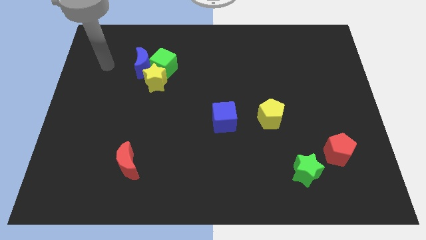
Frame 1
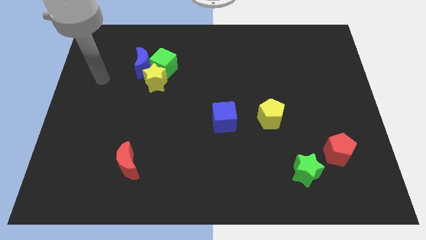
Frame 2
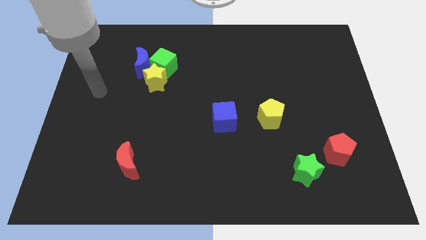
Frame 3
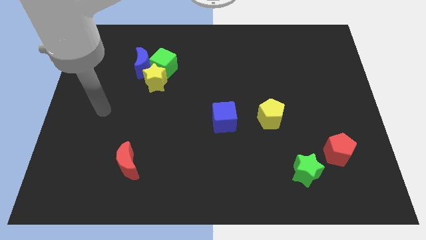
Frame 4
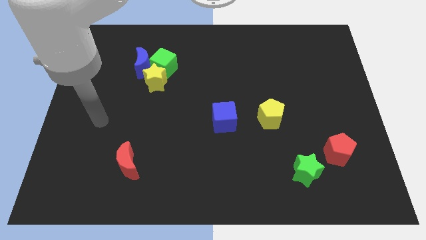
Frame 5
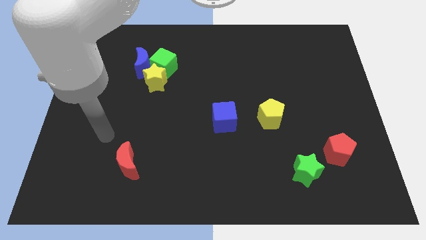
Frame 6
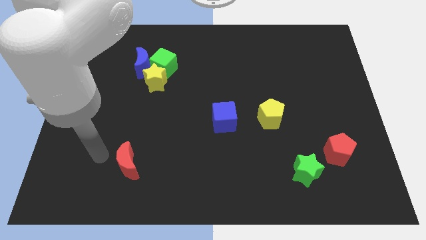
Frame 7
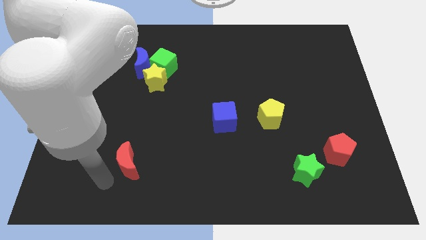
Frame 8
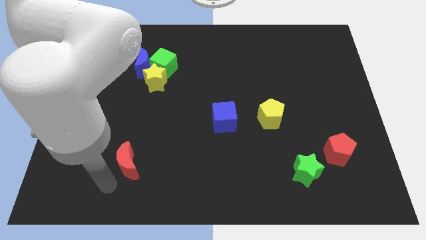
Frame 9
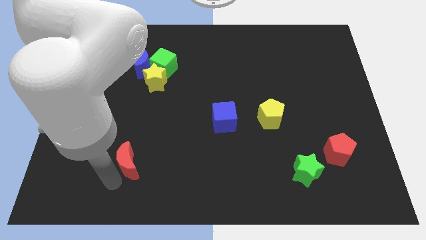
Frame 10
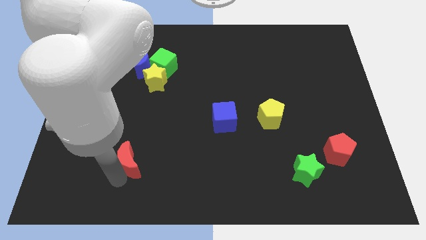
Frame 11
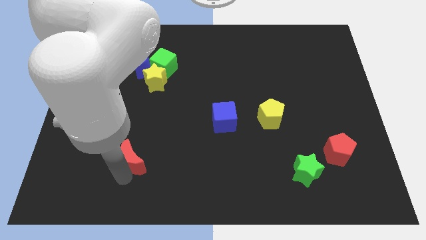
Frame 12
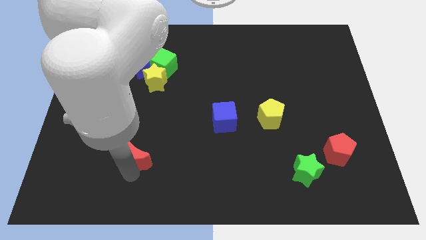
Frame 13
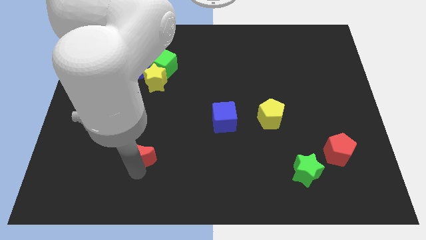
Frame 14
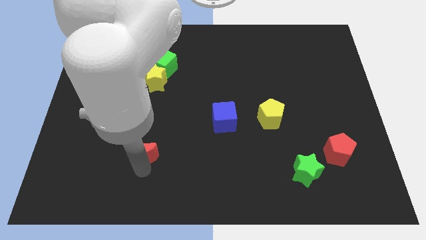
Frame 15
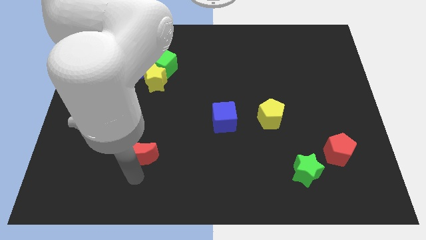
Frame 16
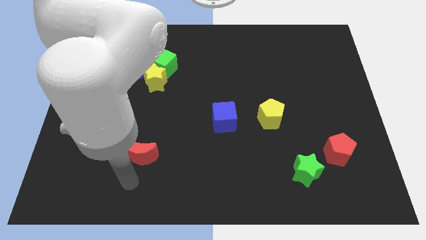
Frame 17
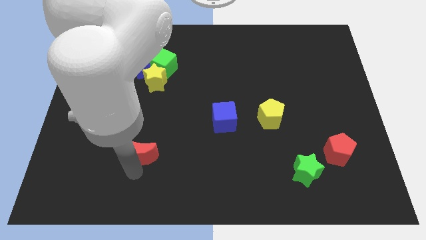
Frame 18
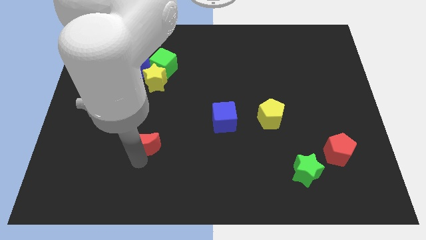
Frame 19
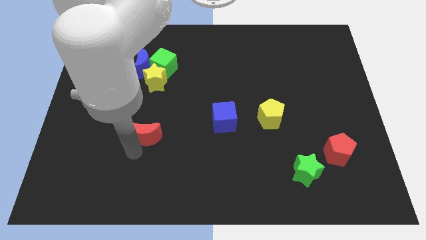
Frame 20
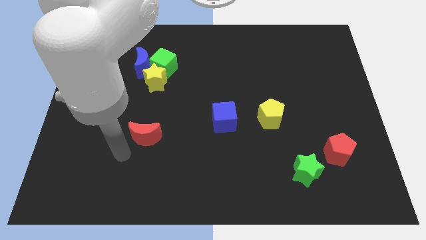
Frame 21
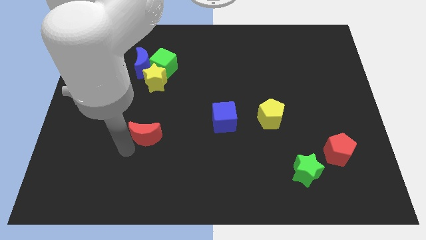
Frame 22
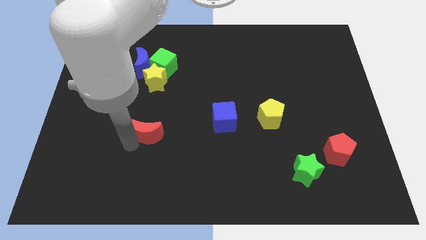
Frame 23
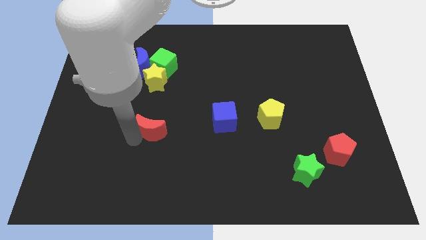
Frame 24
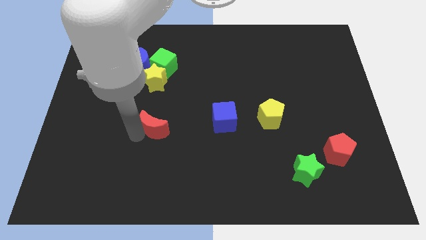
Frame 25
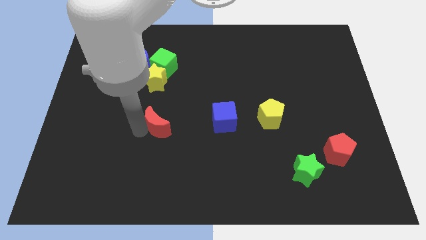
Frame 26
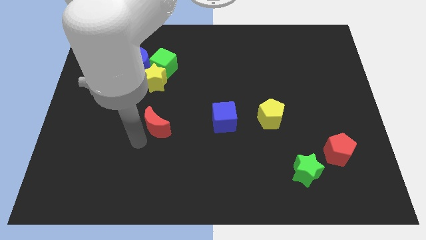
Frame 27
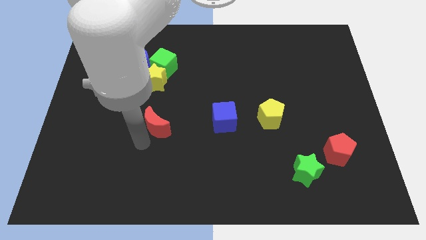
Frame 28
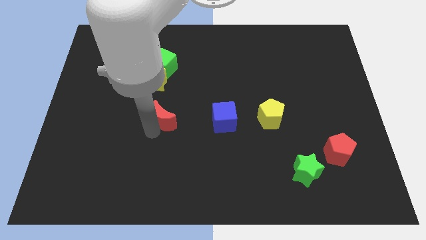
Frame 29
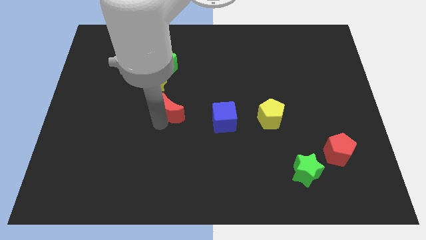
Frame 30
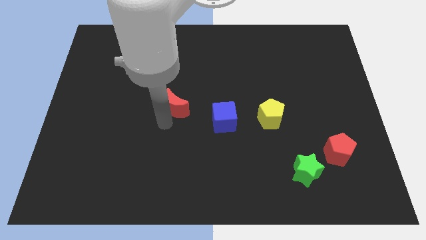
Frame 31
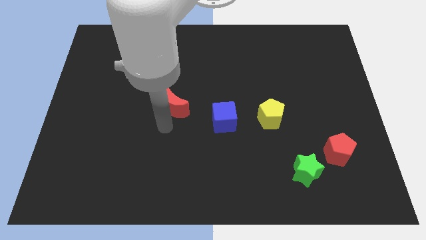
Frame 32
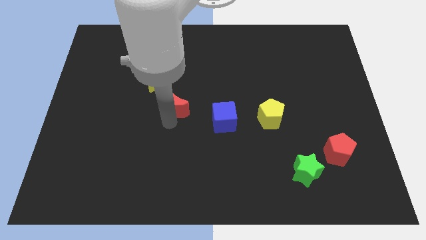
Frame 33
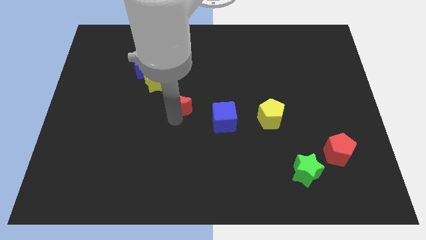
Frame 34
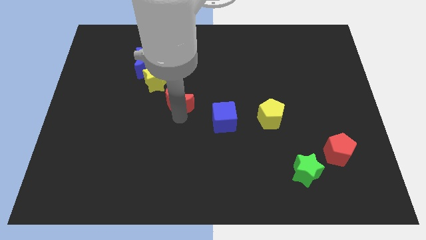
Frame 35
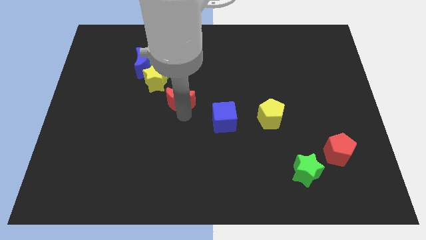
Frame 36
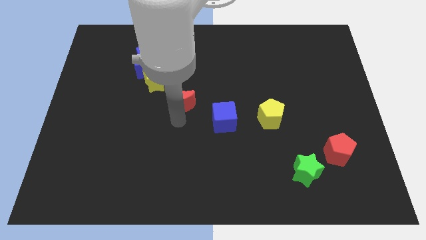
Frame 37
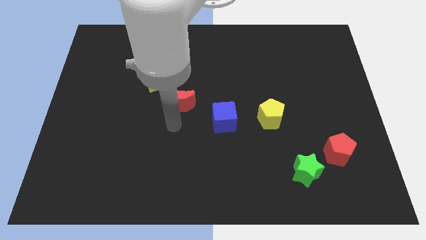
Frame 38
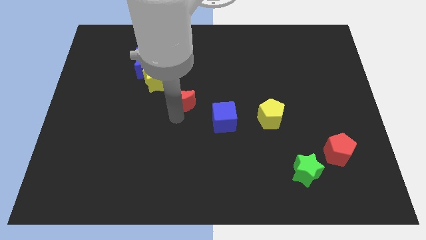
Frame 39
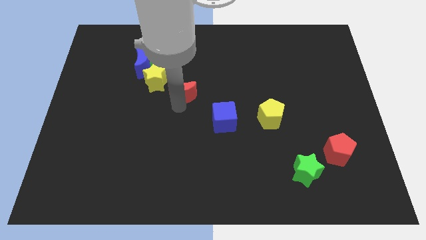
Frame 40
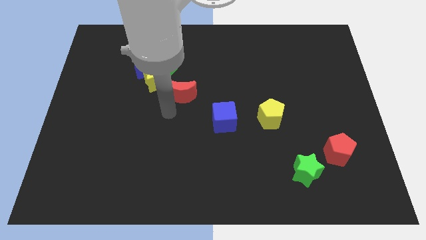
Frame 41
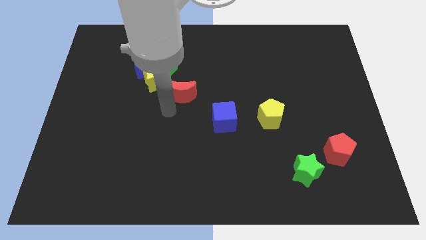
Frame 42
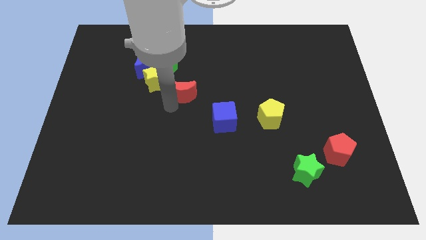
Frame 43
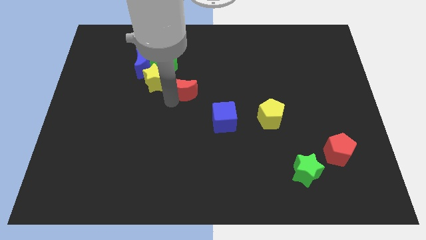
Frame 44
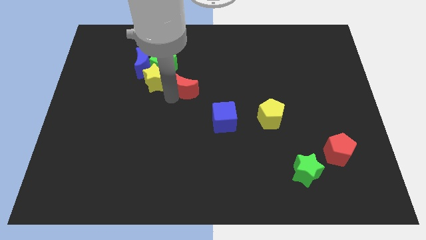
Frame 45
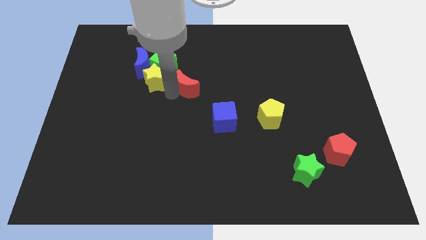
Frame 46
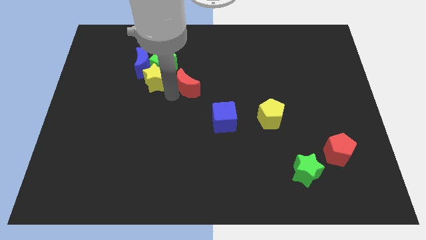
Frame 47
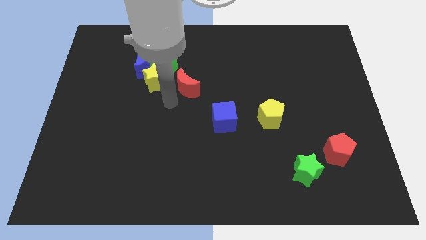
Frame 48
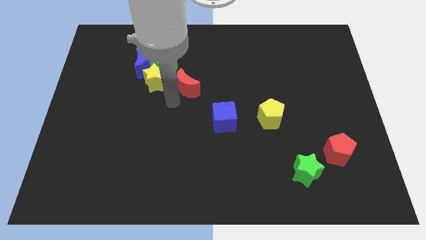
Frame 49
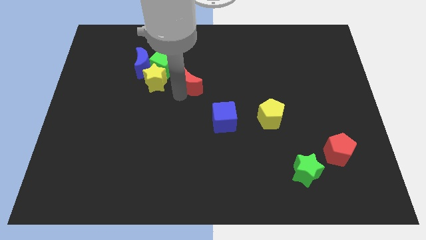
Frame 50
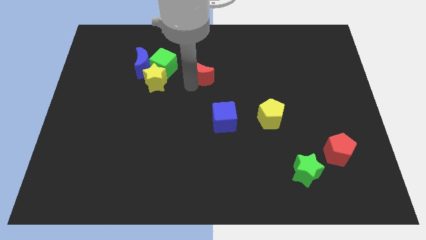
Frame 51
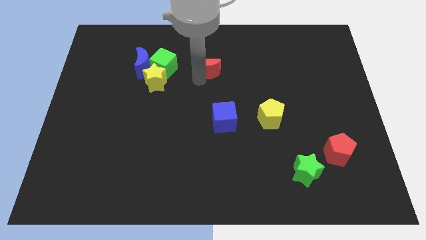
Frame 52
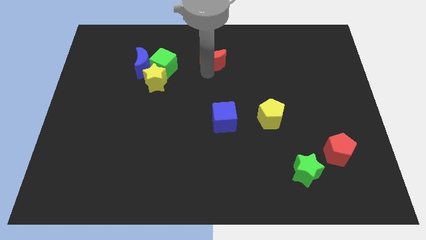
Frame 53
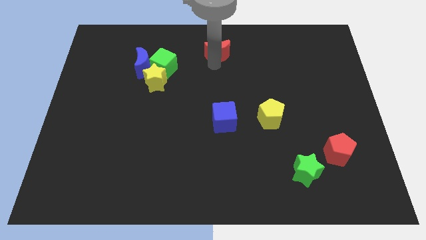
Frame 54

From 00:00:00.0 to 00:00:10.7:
slide the red moon to the top side

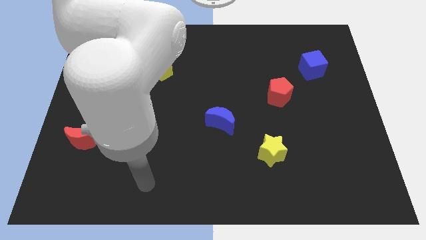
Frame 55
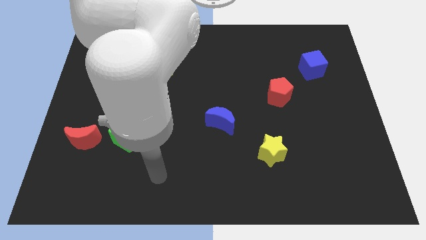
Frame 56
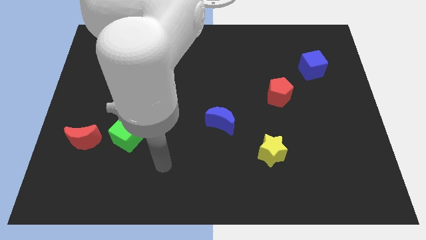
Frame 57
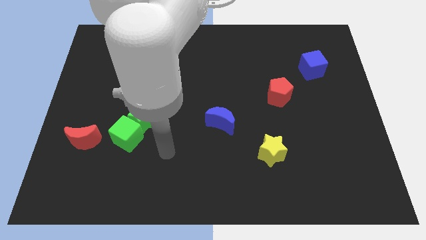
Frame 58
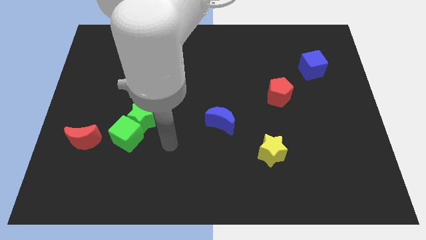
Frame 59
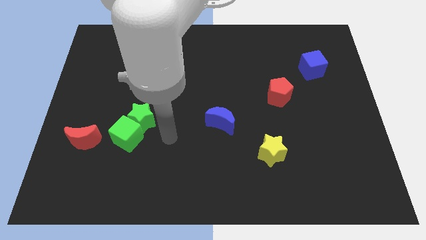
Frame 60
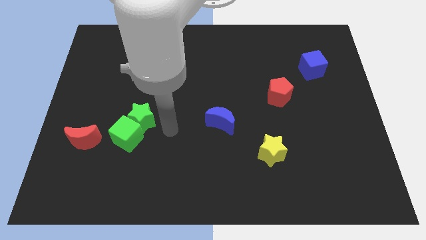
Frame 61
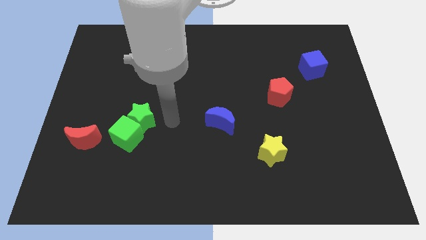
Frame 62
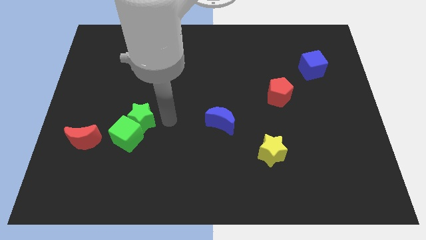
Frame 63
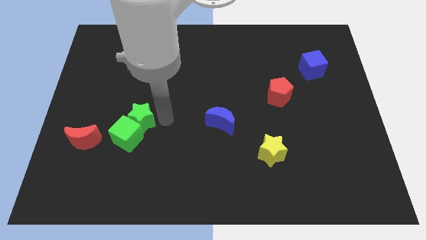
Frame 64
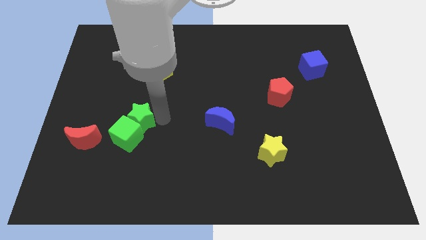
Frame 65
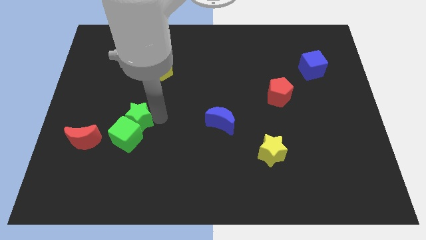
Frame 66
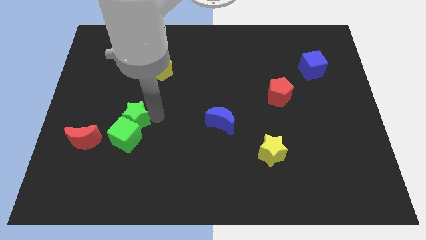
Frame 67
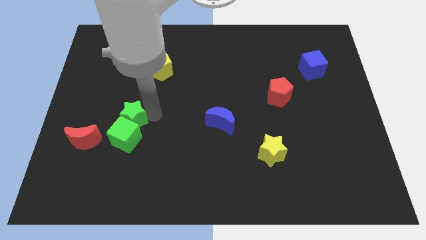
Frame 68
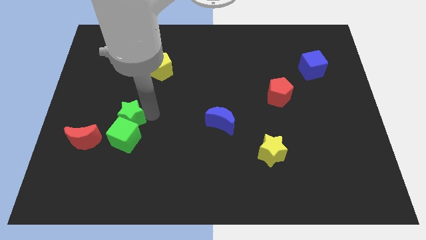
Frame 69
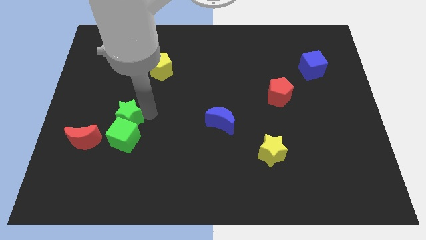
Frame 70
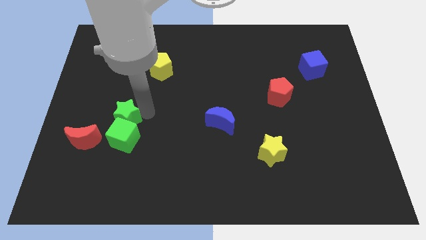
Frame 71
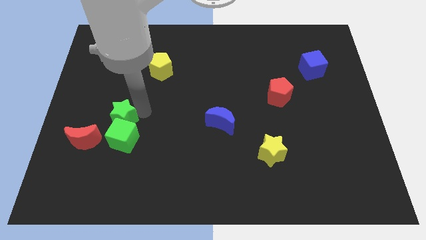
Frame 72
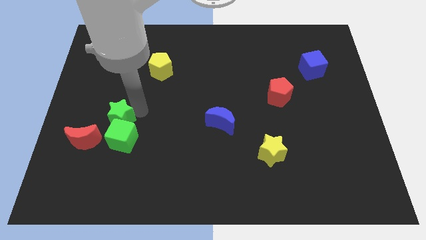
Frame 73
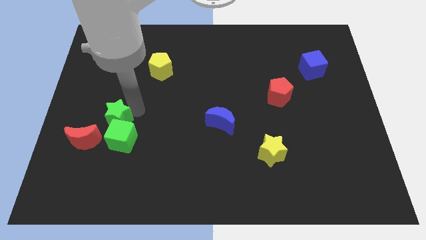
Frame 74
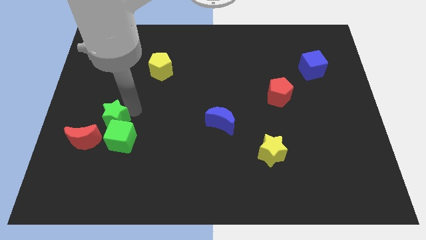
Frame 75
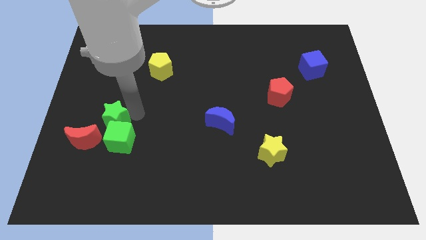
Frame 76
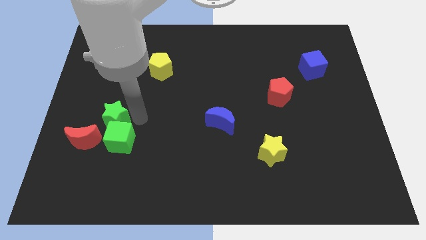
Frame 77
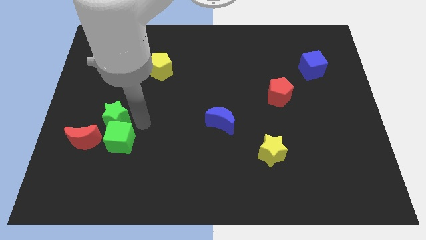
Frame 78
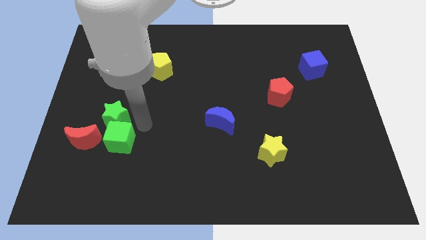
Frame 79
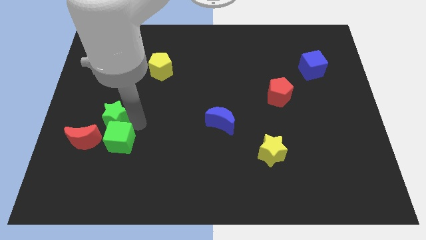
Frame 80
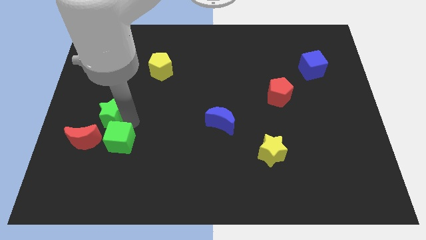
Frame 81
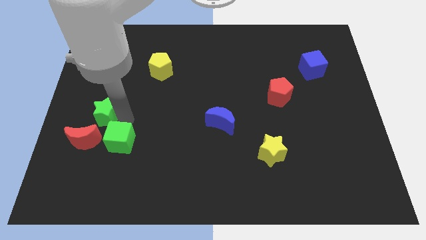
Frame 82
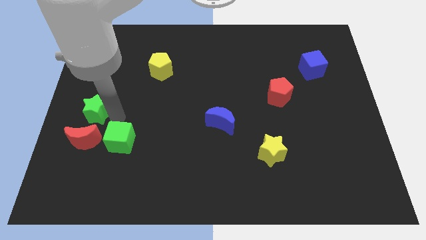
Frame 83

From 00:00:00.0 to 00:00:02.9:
slide the green star to the left side
